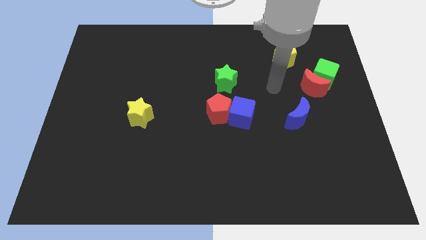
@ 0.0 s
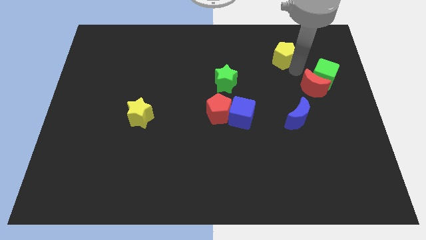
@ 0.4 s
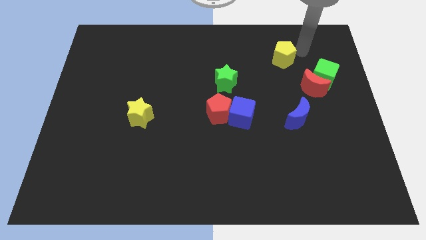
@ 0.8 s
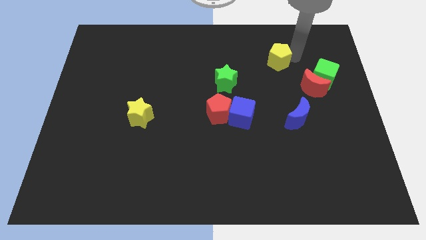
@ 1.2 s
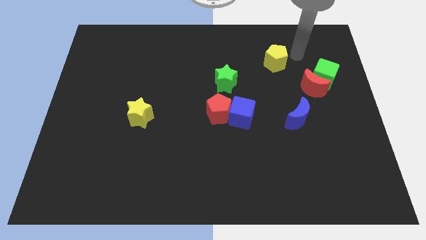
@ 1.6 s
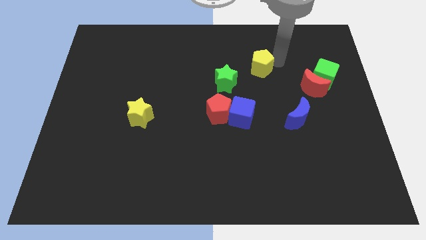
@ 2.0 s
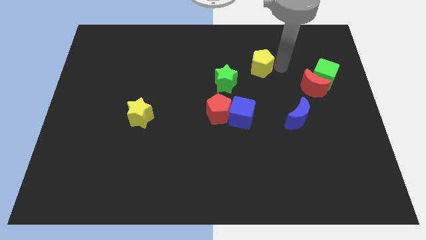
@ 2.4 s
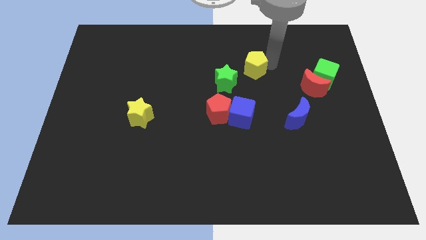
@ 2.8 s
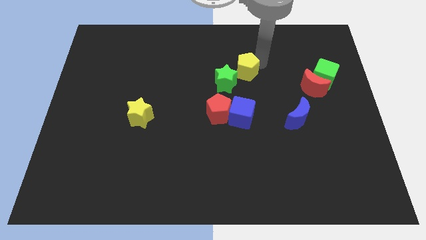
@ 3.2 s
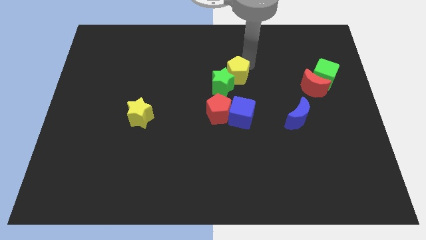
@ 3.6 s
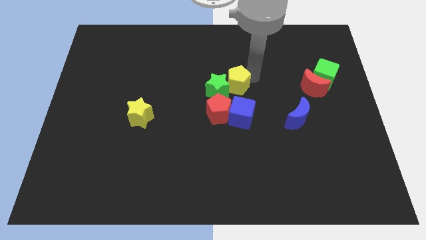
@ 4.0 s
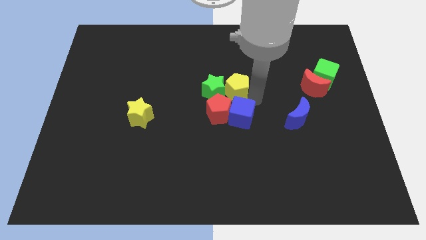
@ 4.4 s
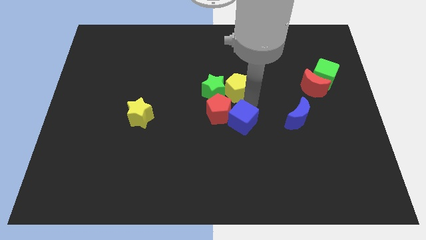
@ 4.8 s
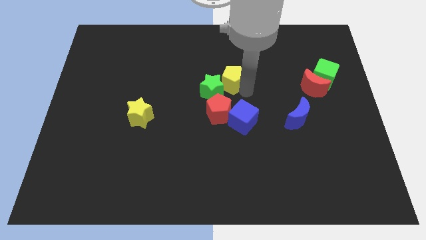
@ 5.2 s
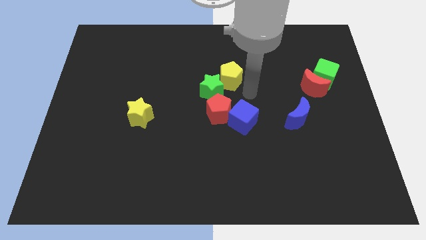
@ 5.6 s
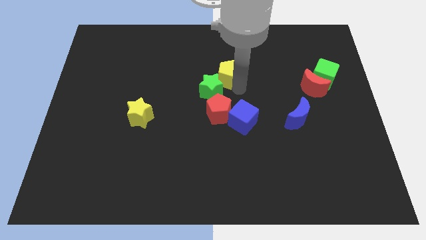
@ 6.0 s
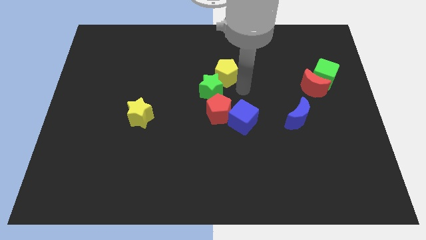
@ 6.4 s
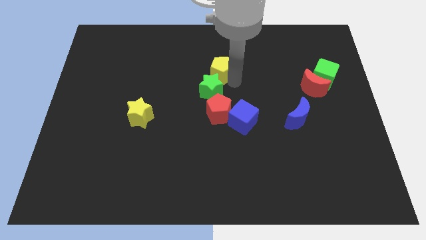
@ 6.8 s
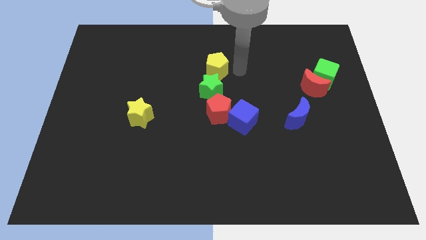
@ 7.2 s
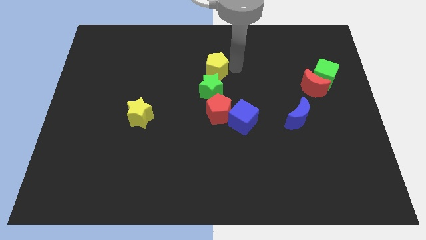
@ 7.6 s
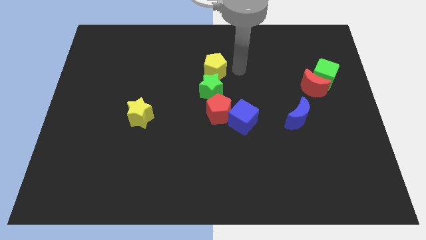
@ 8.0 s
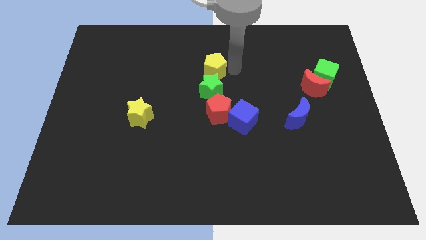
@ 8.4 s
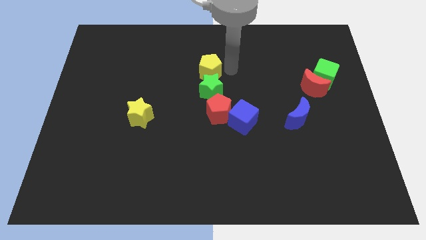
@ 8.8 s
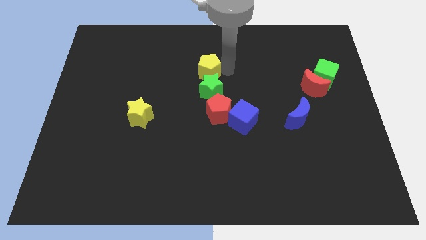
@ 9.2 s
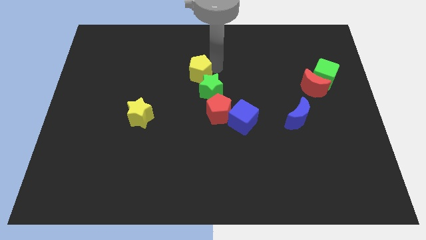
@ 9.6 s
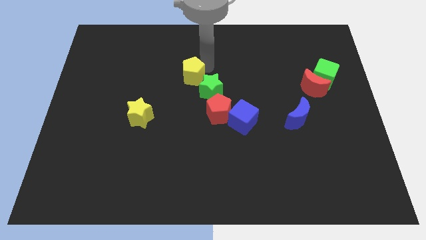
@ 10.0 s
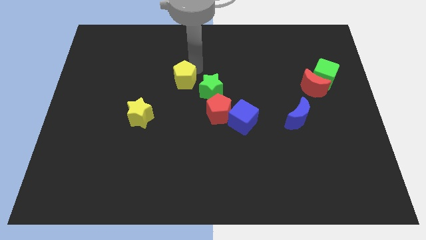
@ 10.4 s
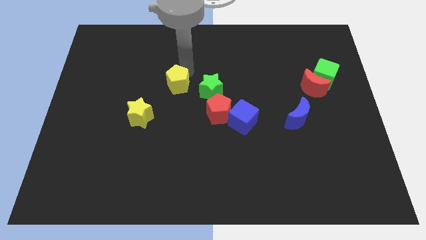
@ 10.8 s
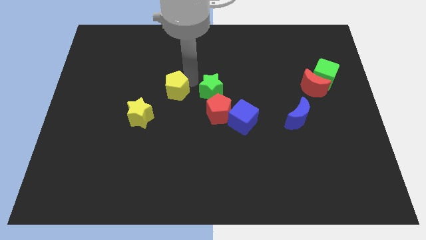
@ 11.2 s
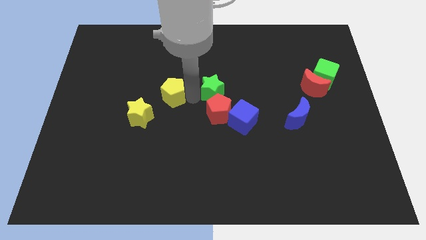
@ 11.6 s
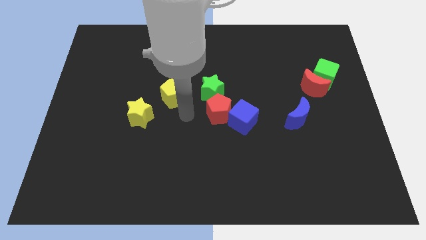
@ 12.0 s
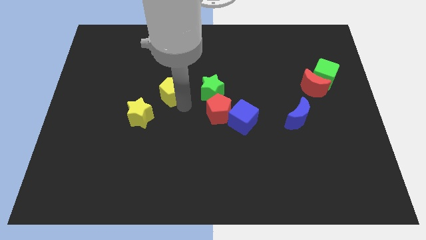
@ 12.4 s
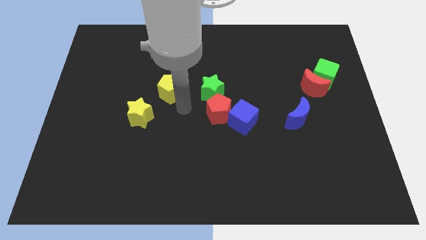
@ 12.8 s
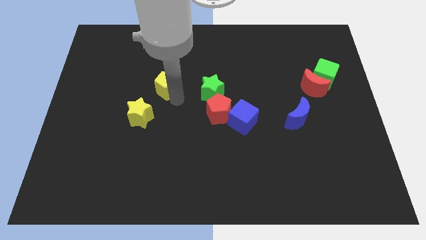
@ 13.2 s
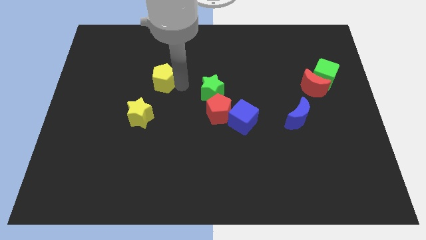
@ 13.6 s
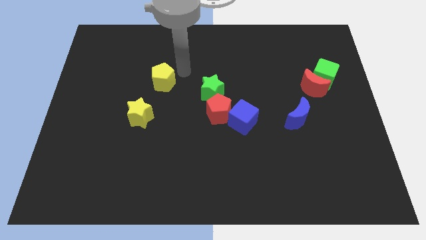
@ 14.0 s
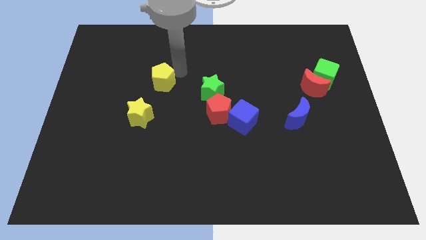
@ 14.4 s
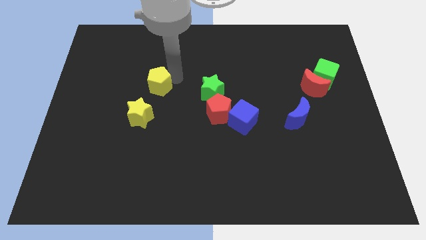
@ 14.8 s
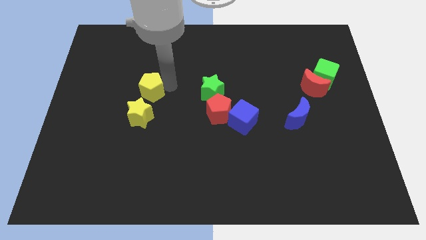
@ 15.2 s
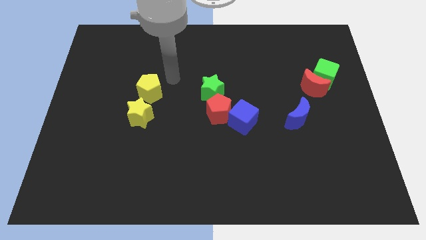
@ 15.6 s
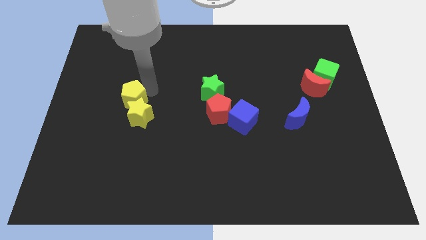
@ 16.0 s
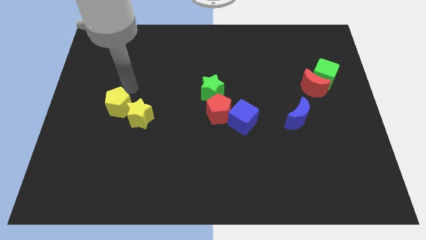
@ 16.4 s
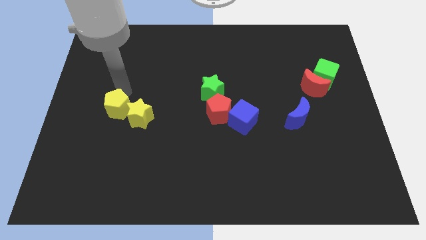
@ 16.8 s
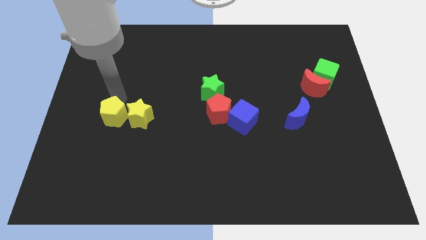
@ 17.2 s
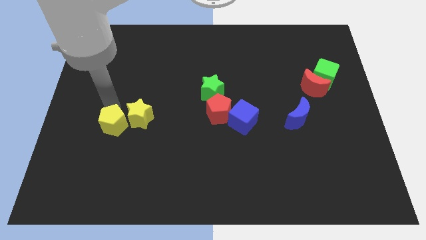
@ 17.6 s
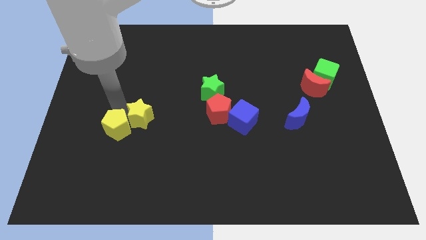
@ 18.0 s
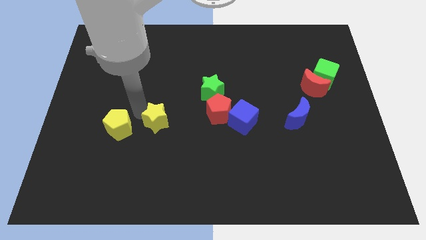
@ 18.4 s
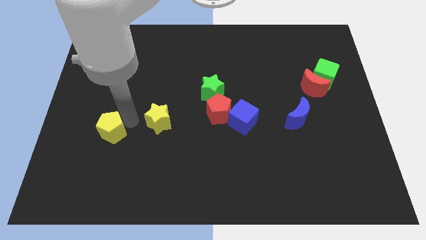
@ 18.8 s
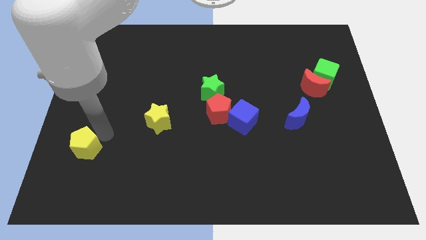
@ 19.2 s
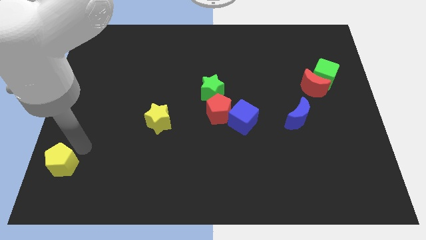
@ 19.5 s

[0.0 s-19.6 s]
move the yellow pentagon to the bottom left of the board

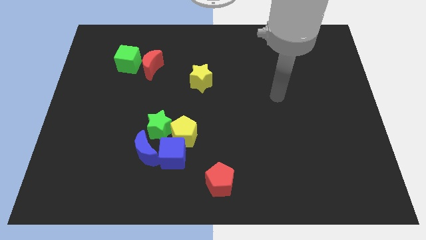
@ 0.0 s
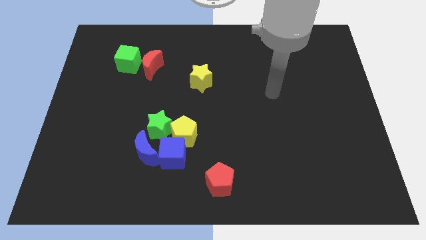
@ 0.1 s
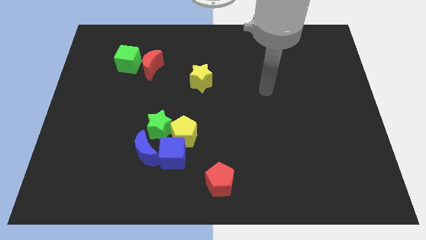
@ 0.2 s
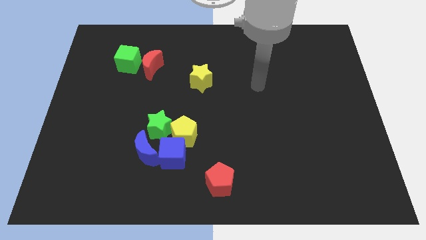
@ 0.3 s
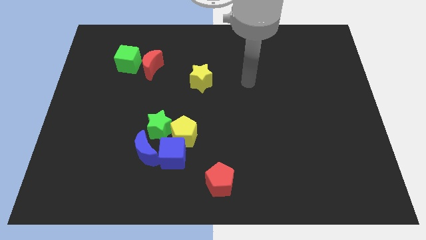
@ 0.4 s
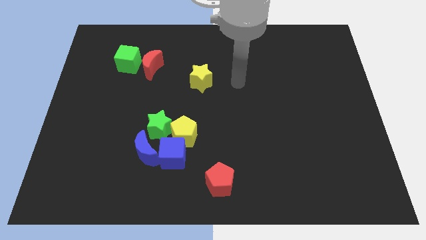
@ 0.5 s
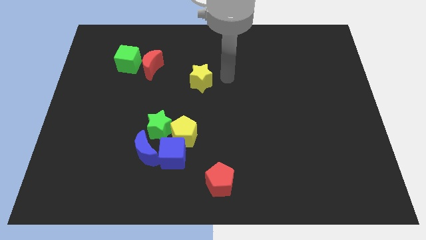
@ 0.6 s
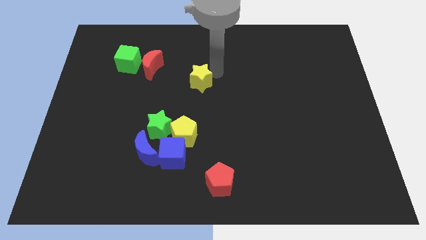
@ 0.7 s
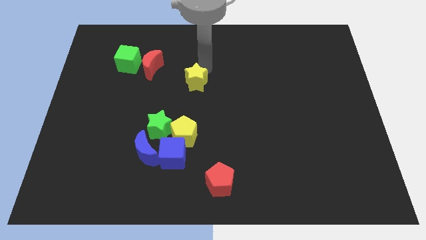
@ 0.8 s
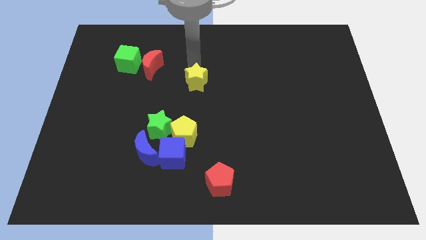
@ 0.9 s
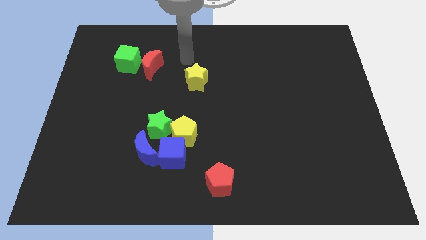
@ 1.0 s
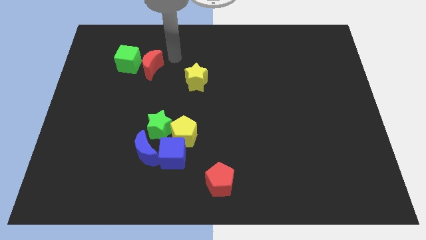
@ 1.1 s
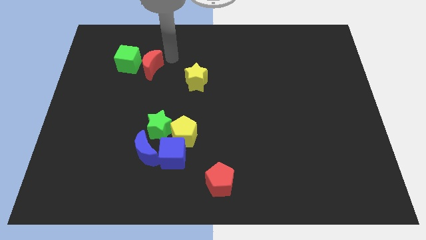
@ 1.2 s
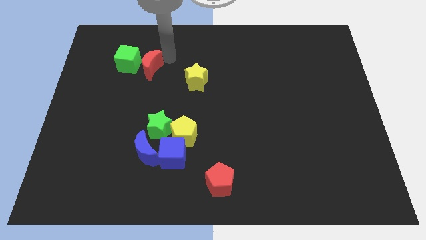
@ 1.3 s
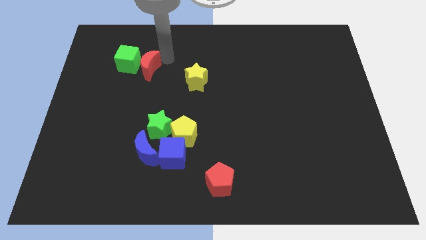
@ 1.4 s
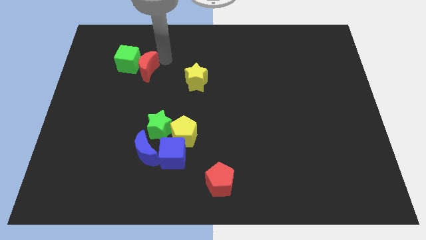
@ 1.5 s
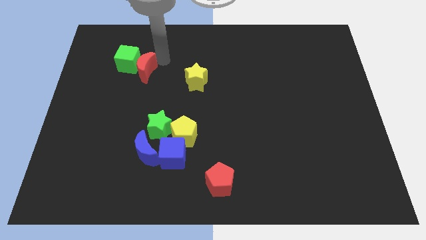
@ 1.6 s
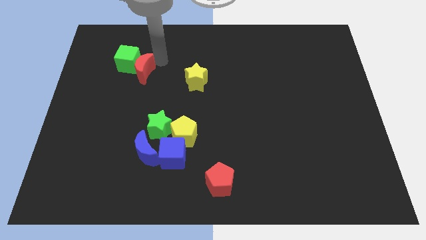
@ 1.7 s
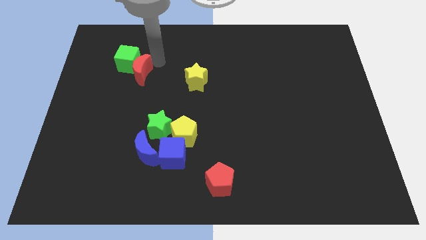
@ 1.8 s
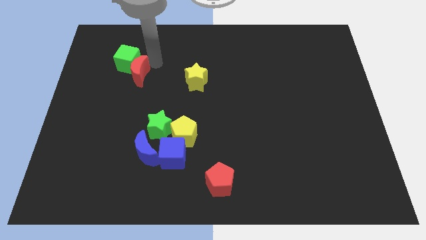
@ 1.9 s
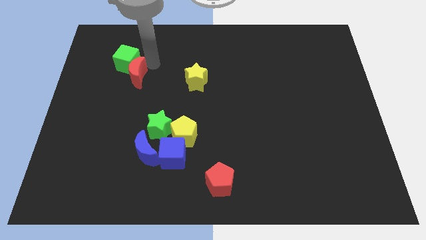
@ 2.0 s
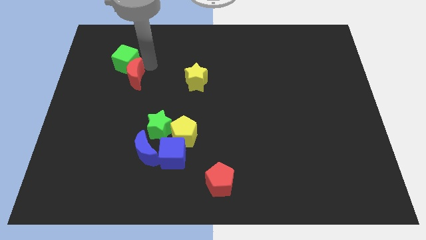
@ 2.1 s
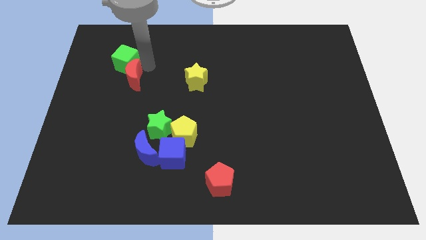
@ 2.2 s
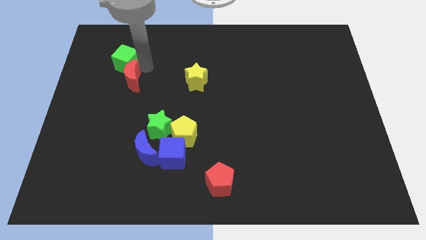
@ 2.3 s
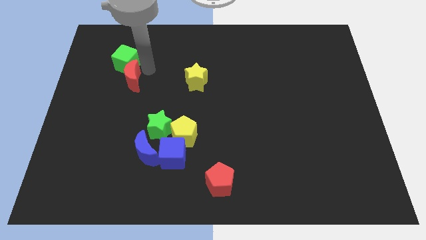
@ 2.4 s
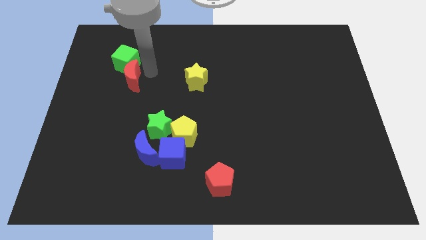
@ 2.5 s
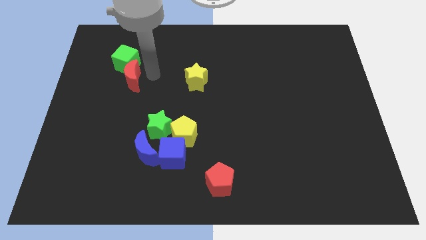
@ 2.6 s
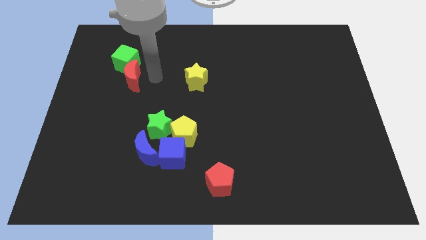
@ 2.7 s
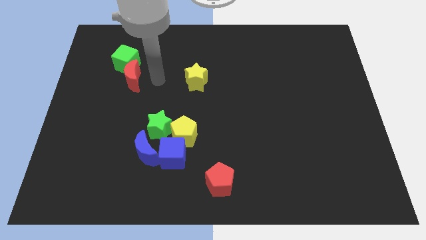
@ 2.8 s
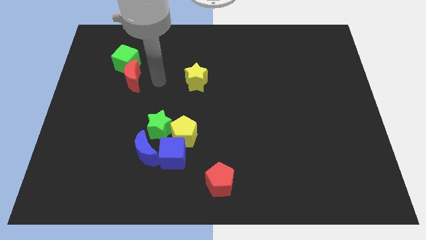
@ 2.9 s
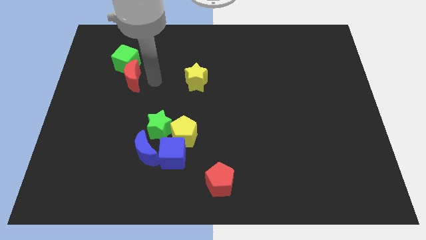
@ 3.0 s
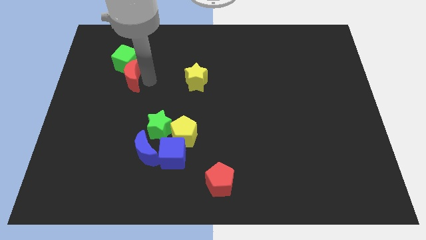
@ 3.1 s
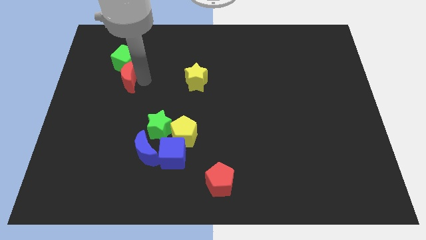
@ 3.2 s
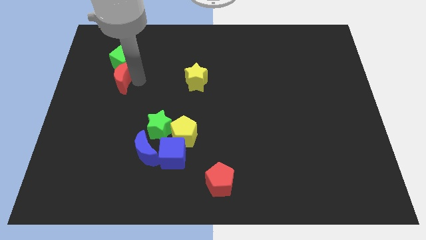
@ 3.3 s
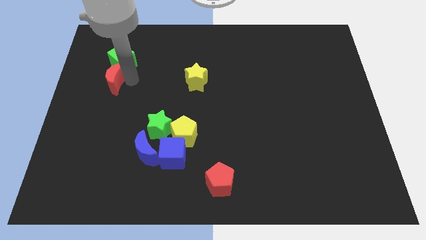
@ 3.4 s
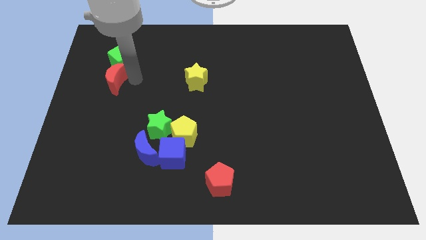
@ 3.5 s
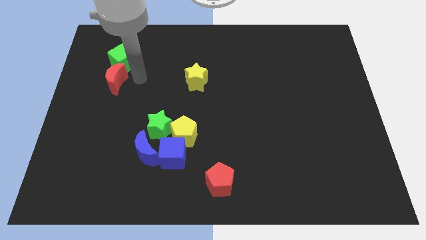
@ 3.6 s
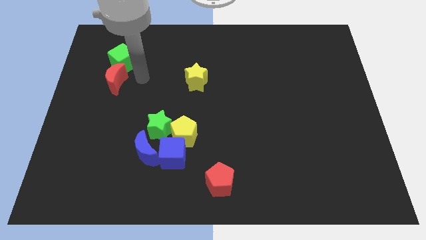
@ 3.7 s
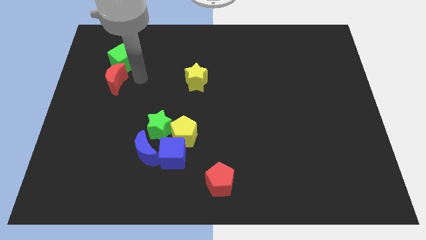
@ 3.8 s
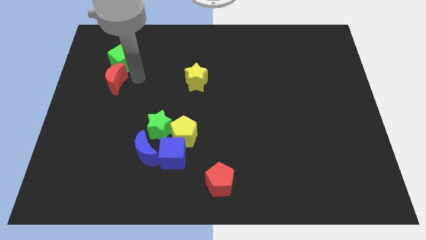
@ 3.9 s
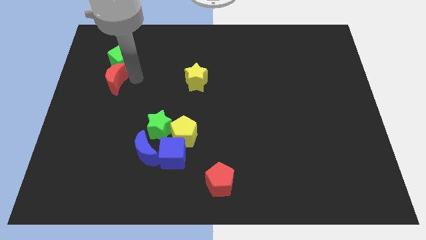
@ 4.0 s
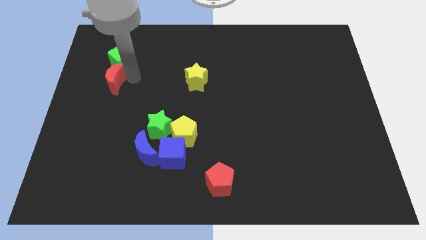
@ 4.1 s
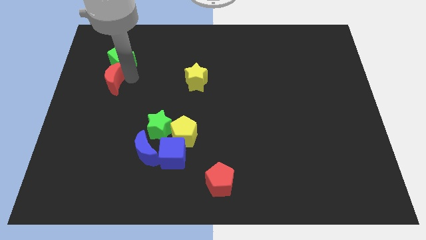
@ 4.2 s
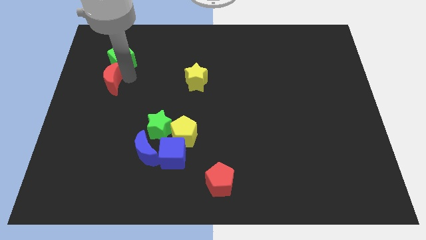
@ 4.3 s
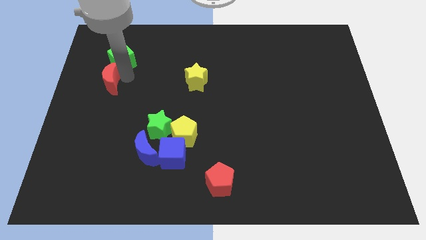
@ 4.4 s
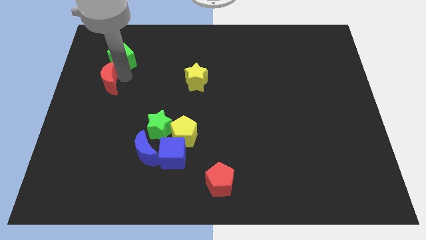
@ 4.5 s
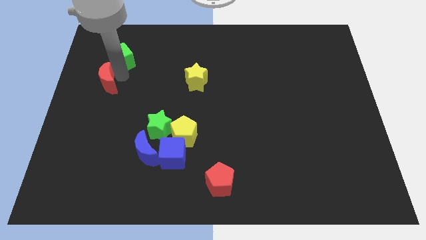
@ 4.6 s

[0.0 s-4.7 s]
move the red moon to the left side of the board
